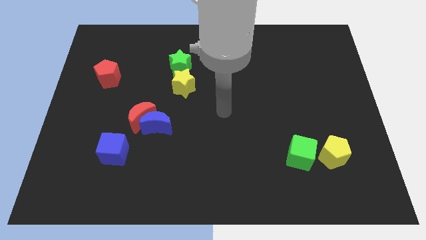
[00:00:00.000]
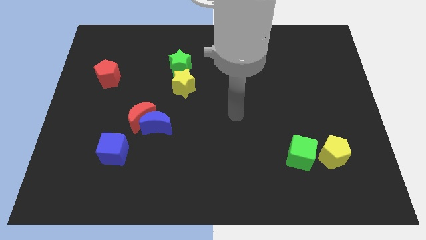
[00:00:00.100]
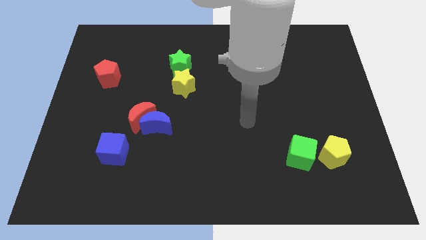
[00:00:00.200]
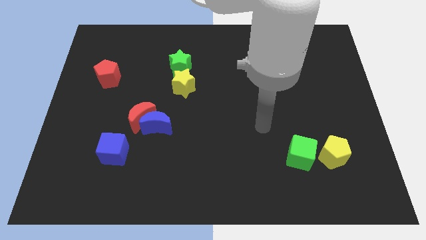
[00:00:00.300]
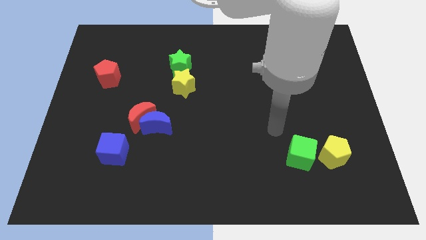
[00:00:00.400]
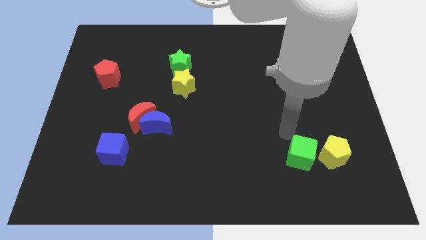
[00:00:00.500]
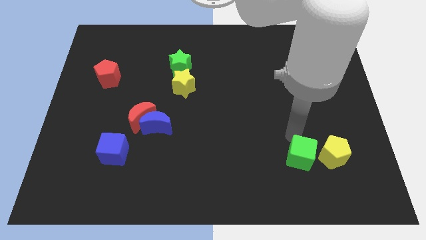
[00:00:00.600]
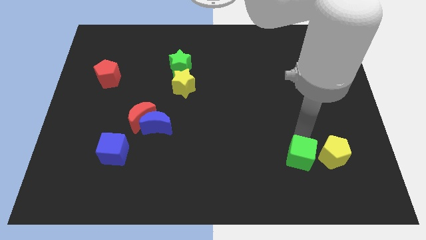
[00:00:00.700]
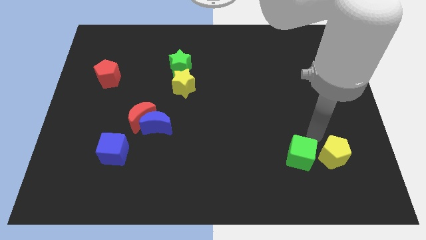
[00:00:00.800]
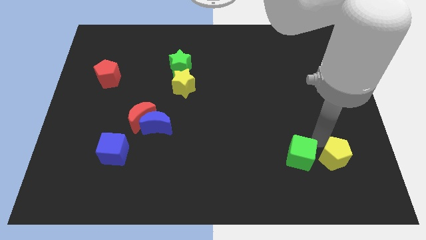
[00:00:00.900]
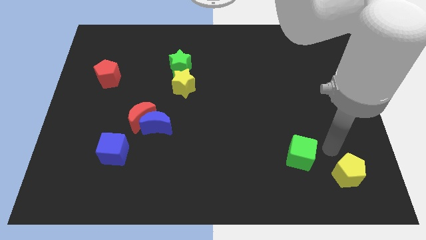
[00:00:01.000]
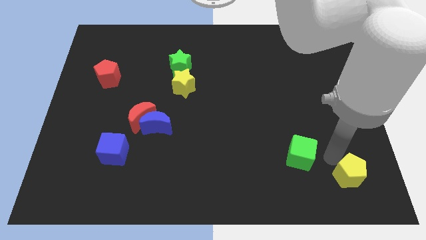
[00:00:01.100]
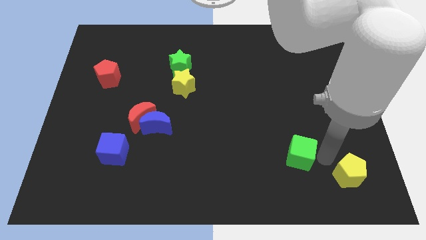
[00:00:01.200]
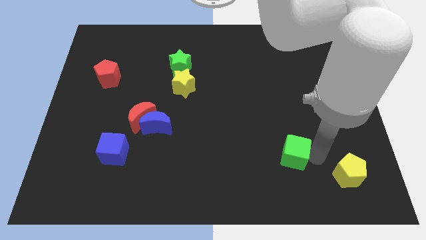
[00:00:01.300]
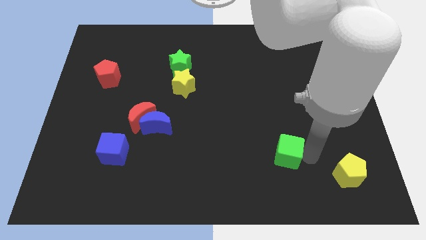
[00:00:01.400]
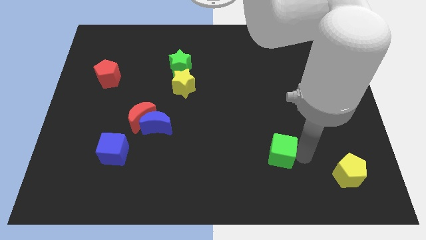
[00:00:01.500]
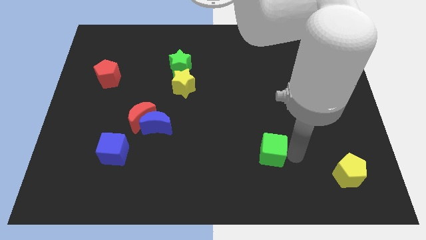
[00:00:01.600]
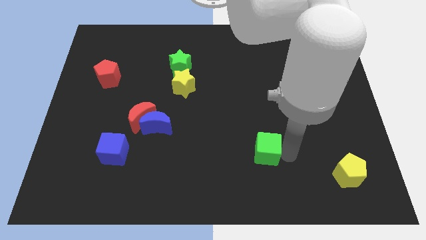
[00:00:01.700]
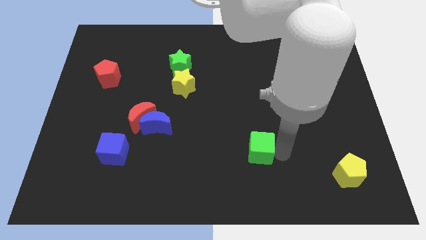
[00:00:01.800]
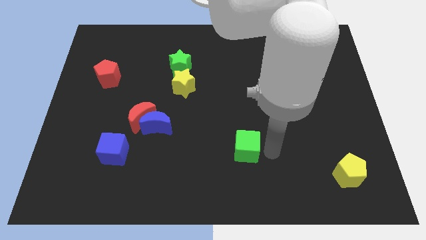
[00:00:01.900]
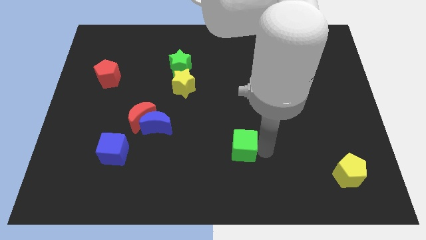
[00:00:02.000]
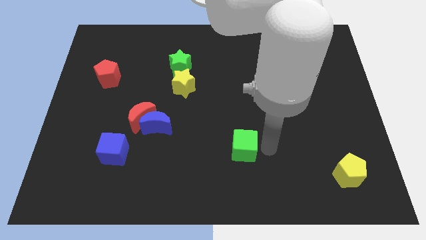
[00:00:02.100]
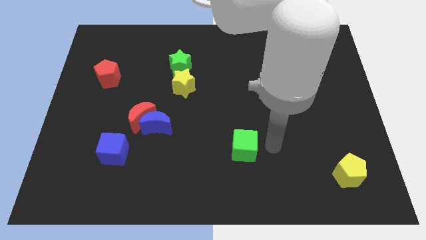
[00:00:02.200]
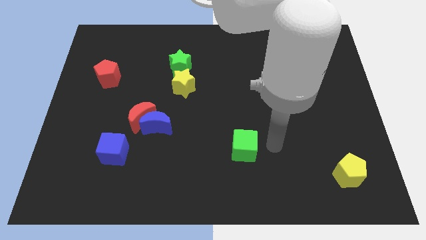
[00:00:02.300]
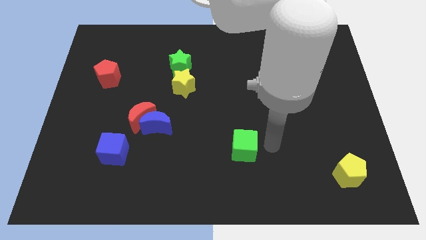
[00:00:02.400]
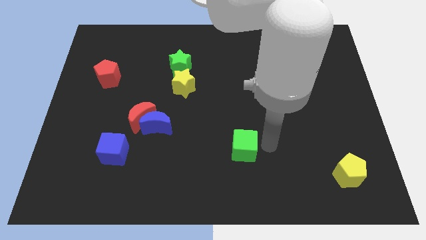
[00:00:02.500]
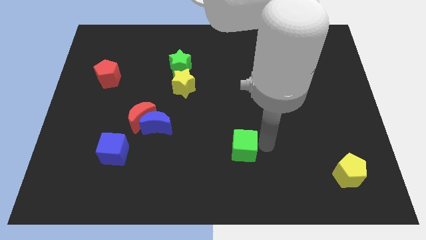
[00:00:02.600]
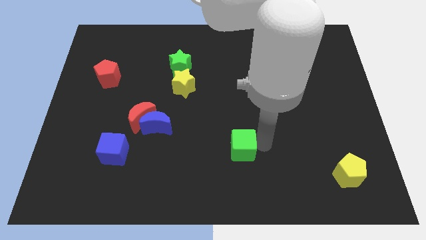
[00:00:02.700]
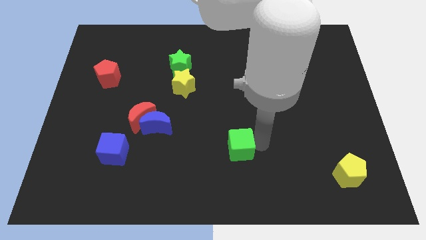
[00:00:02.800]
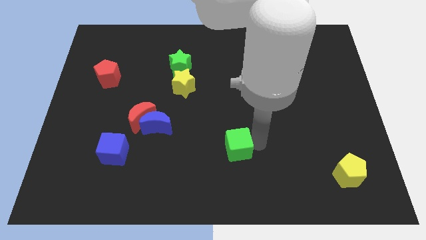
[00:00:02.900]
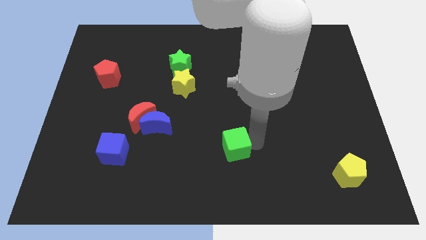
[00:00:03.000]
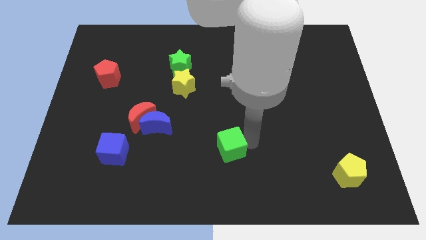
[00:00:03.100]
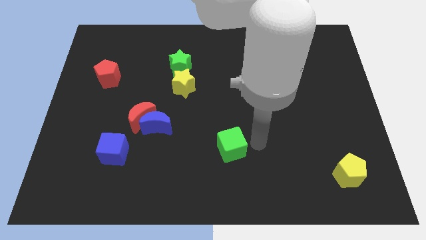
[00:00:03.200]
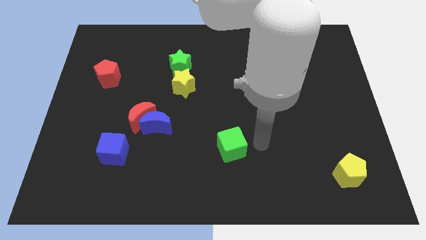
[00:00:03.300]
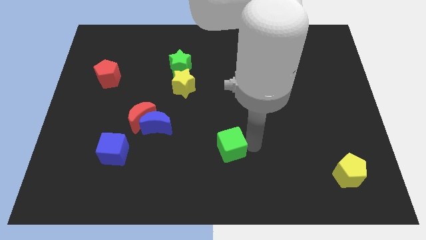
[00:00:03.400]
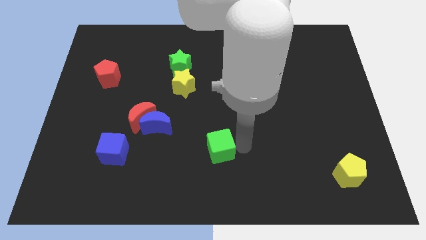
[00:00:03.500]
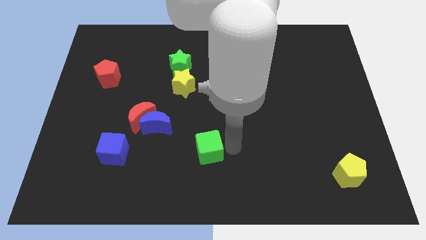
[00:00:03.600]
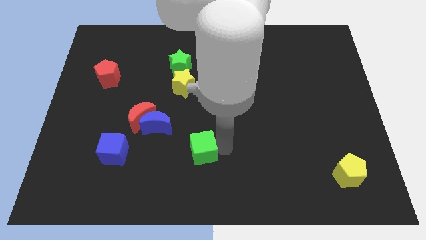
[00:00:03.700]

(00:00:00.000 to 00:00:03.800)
move the green cube left

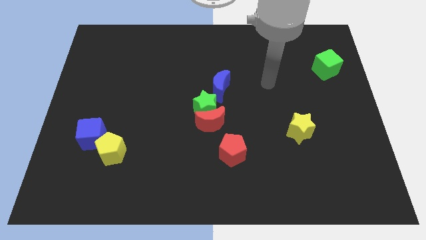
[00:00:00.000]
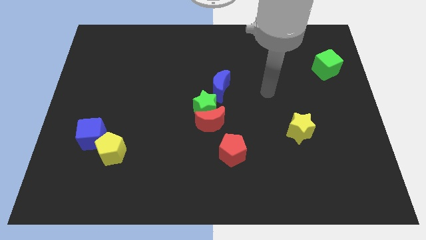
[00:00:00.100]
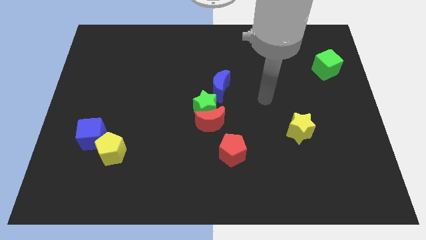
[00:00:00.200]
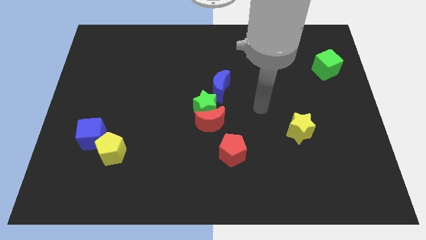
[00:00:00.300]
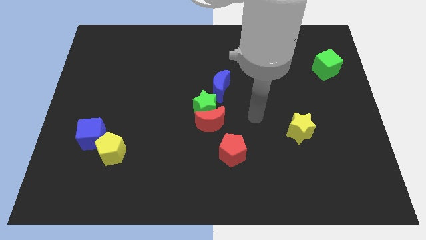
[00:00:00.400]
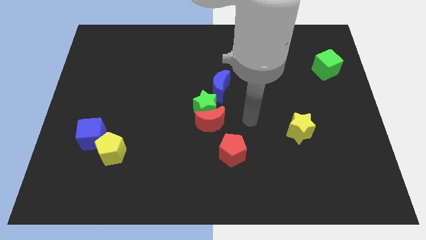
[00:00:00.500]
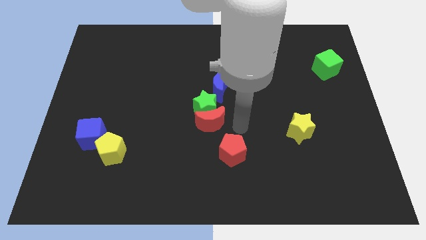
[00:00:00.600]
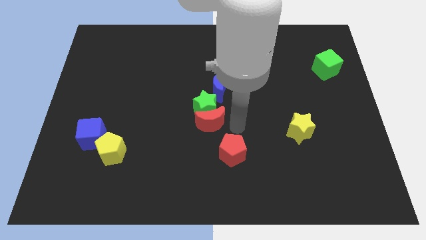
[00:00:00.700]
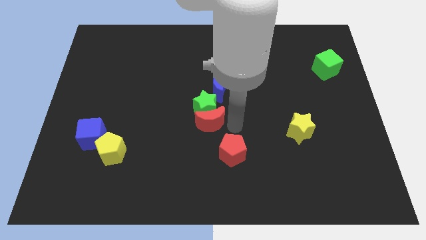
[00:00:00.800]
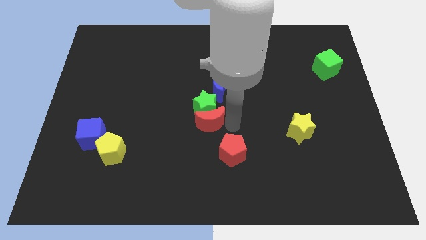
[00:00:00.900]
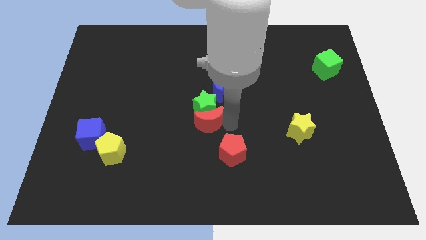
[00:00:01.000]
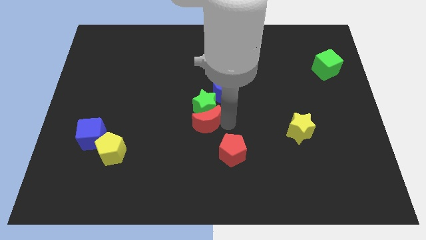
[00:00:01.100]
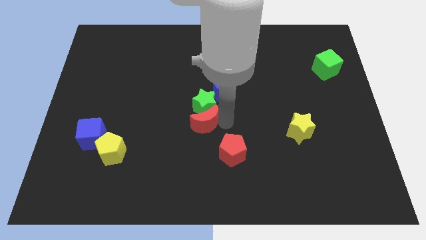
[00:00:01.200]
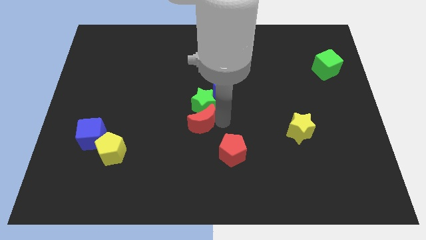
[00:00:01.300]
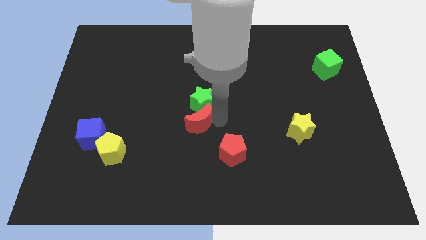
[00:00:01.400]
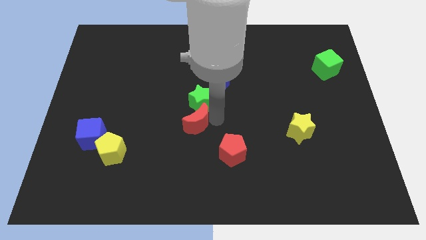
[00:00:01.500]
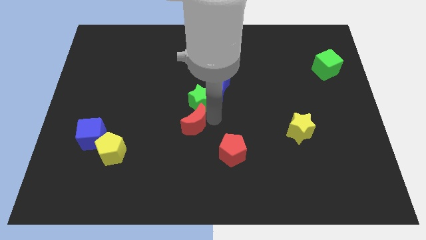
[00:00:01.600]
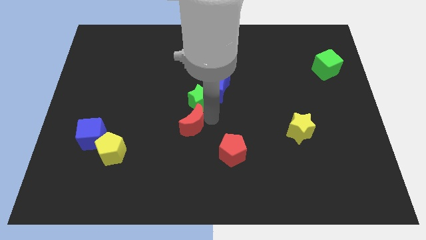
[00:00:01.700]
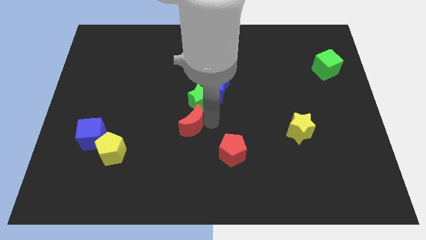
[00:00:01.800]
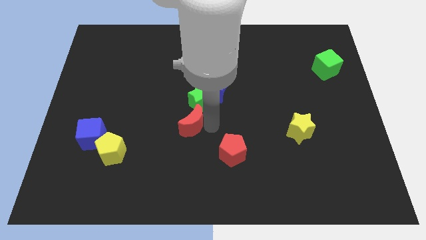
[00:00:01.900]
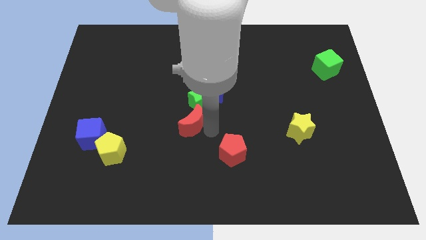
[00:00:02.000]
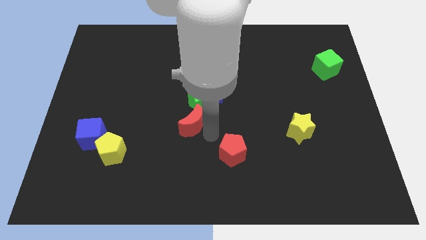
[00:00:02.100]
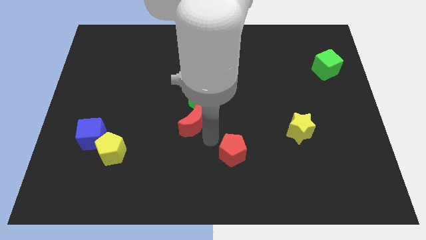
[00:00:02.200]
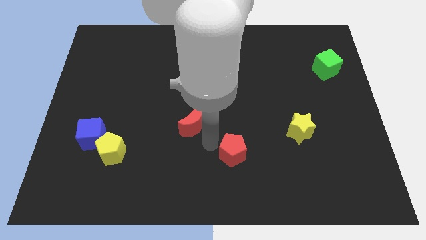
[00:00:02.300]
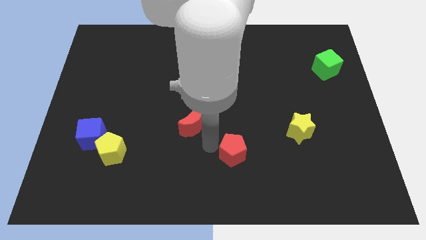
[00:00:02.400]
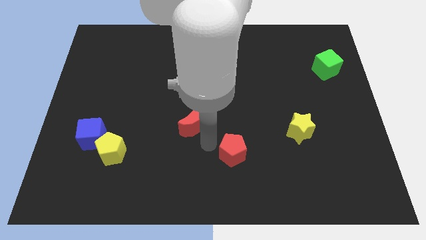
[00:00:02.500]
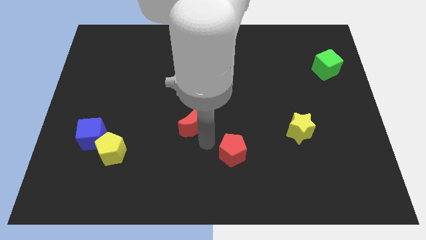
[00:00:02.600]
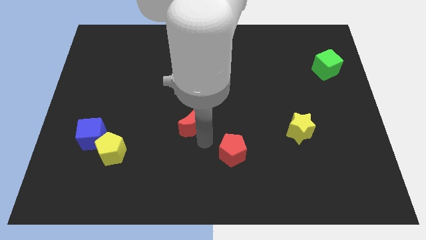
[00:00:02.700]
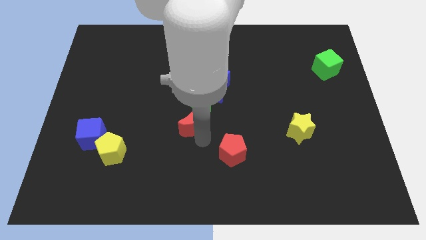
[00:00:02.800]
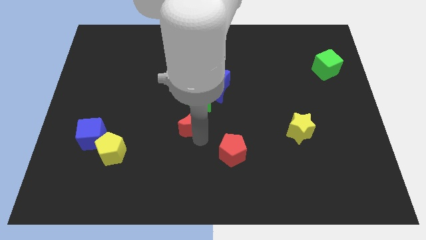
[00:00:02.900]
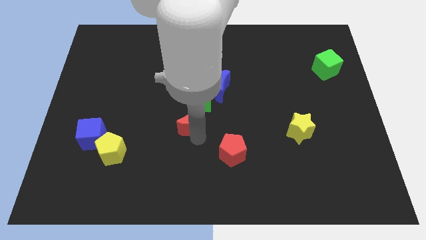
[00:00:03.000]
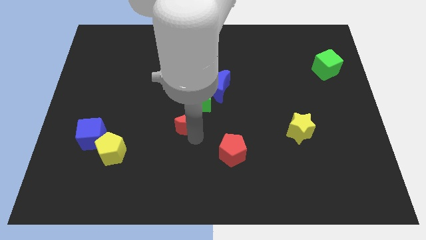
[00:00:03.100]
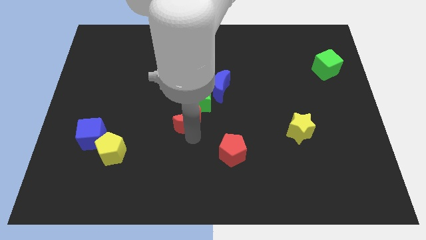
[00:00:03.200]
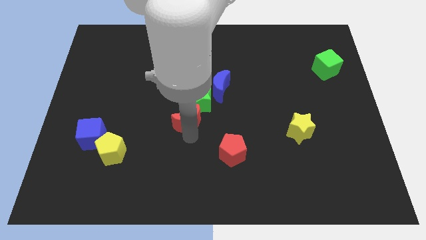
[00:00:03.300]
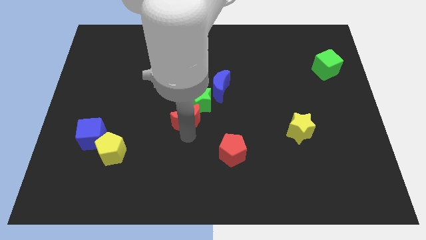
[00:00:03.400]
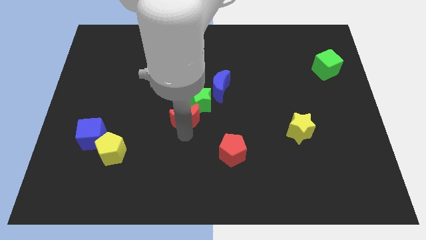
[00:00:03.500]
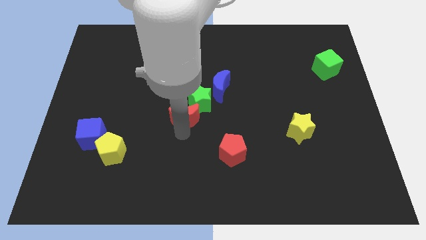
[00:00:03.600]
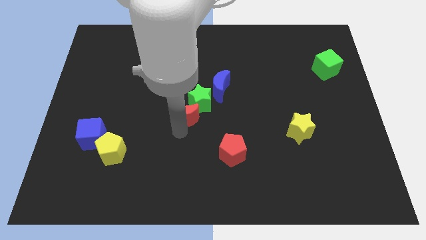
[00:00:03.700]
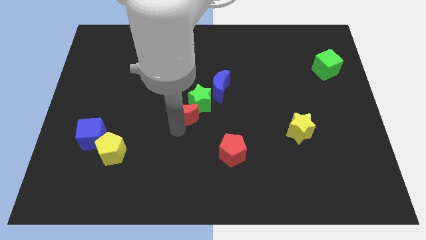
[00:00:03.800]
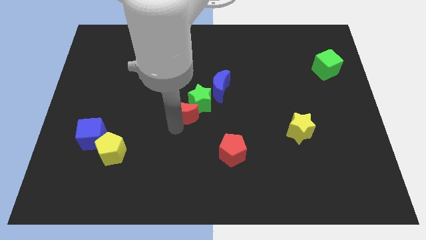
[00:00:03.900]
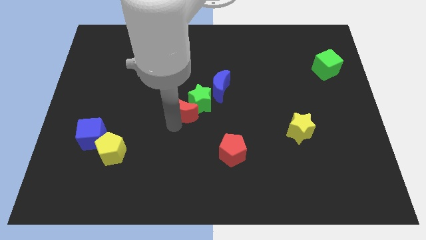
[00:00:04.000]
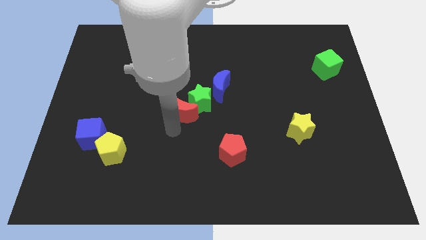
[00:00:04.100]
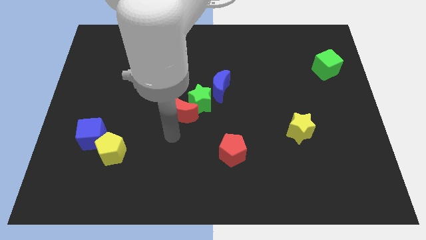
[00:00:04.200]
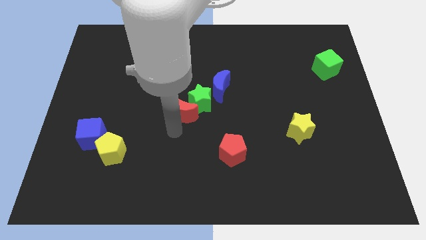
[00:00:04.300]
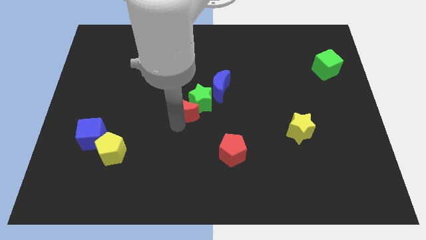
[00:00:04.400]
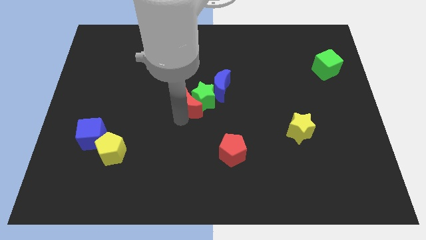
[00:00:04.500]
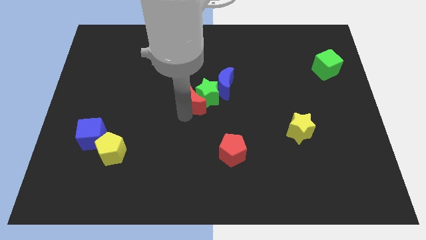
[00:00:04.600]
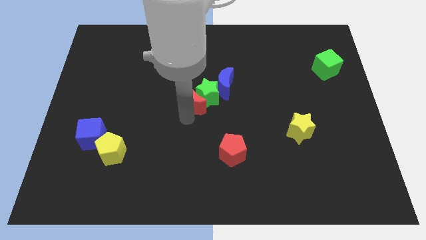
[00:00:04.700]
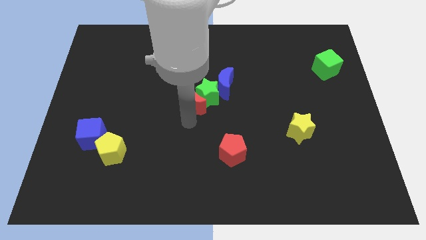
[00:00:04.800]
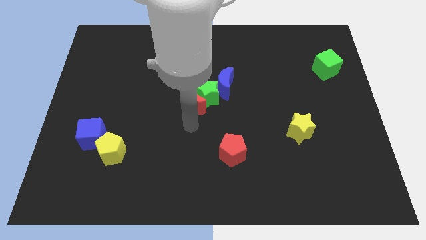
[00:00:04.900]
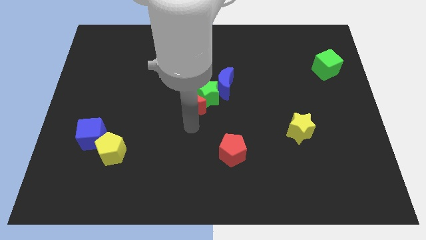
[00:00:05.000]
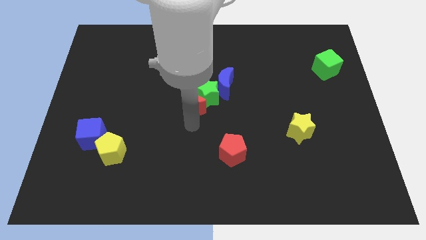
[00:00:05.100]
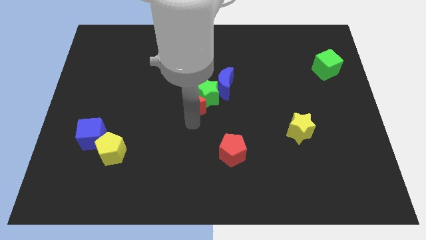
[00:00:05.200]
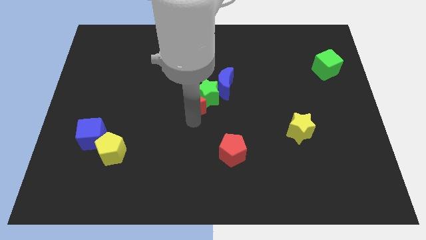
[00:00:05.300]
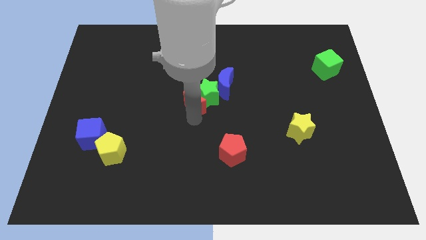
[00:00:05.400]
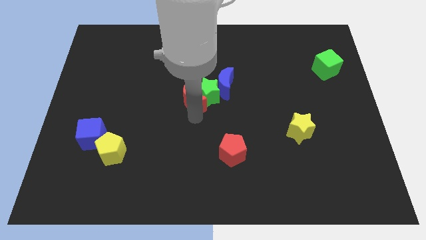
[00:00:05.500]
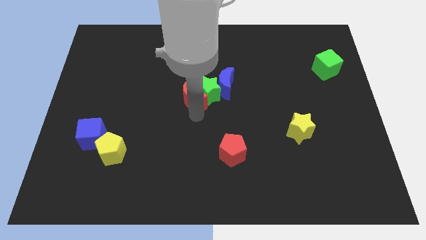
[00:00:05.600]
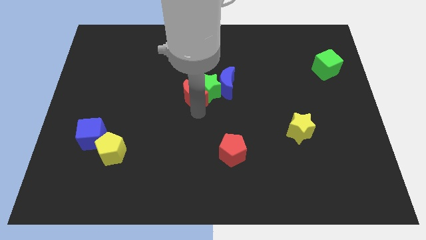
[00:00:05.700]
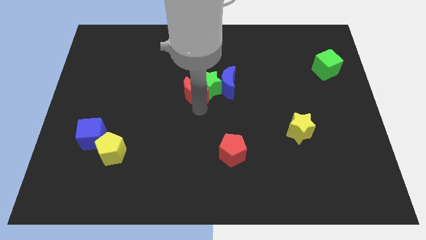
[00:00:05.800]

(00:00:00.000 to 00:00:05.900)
slightly push the red moon upwards
